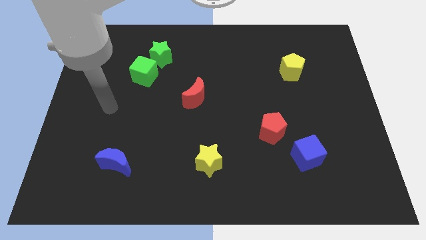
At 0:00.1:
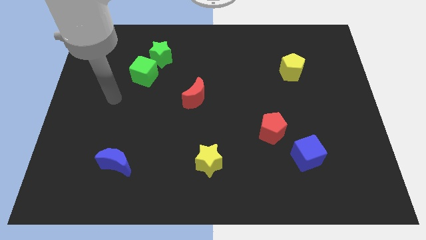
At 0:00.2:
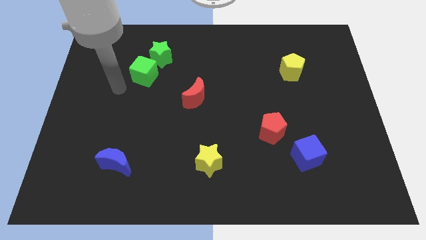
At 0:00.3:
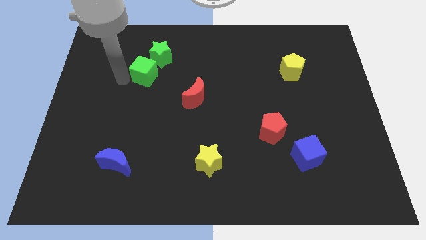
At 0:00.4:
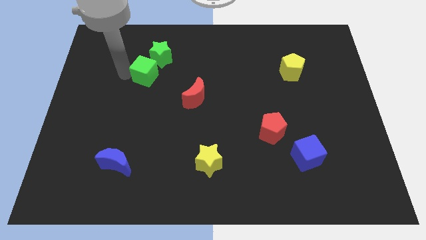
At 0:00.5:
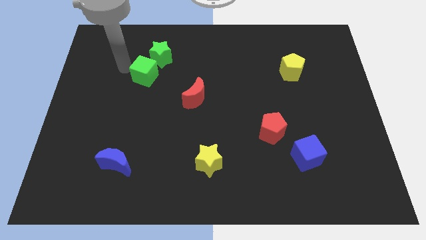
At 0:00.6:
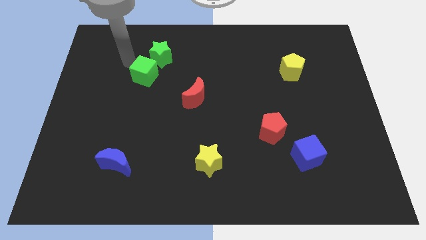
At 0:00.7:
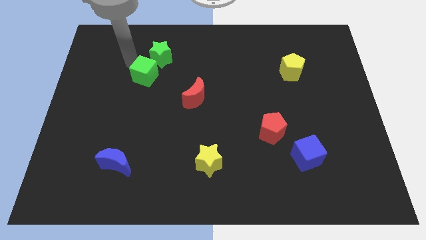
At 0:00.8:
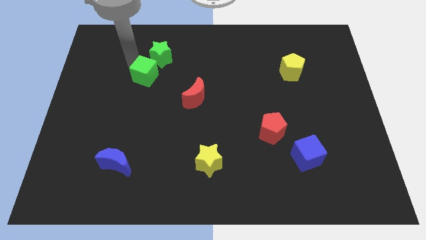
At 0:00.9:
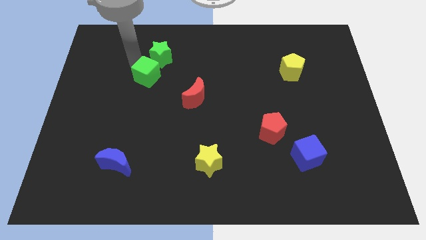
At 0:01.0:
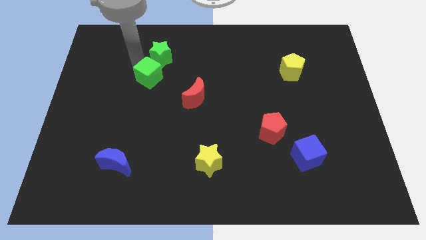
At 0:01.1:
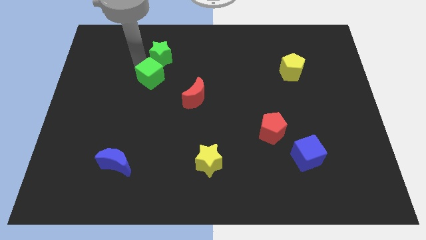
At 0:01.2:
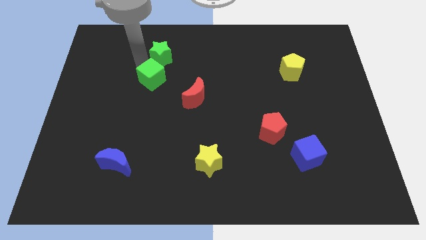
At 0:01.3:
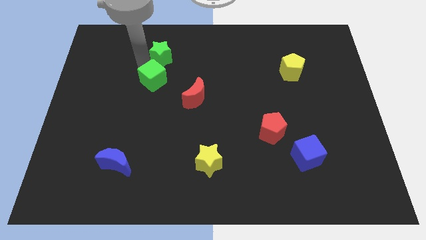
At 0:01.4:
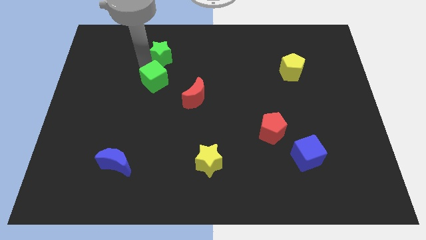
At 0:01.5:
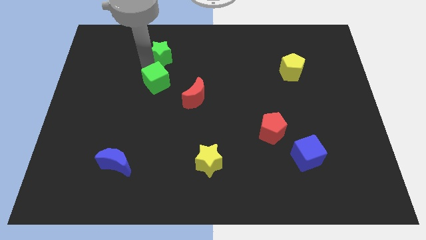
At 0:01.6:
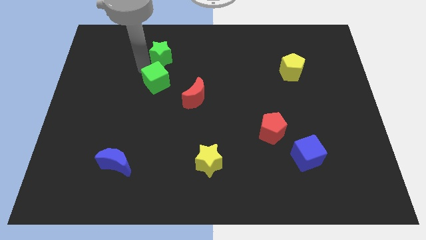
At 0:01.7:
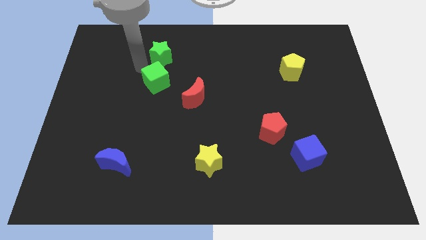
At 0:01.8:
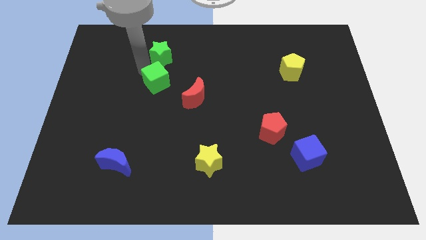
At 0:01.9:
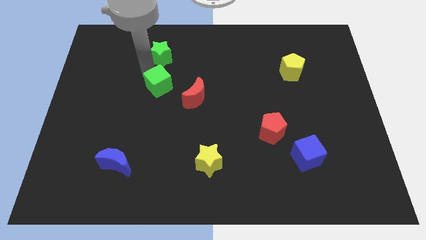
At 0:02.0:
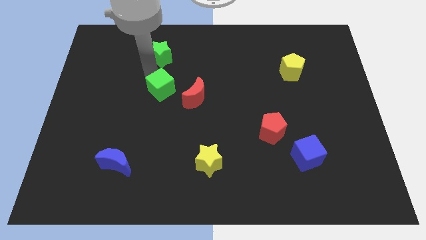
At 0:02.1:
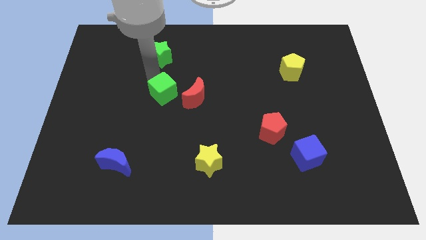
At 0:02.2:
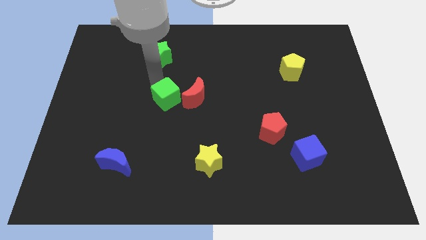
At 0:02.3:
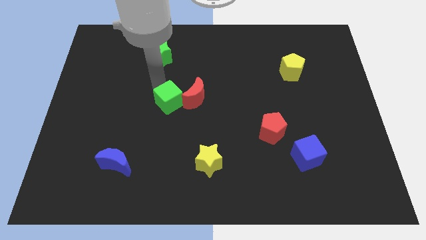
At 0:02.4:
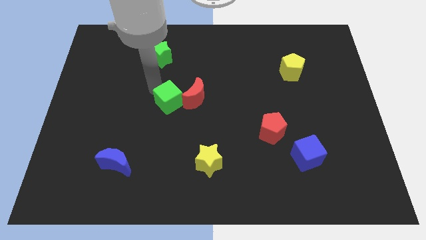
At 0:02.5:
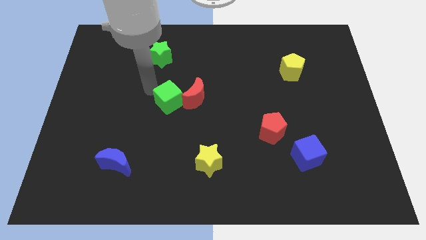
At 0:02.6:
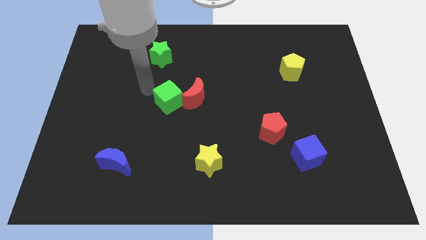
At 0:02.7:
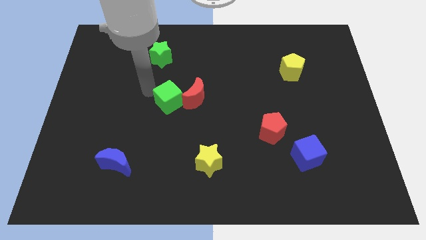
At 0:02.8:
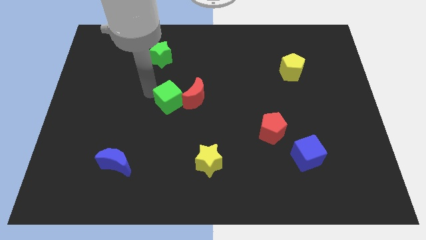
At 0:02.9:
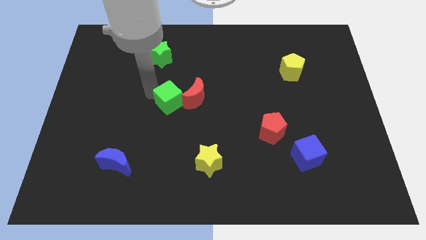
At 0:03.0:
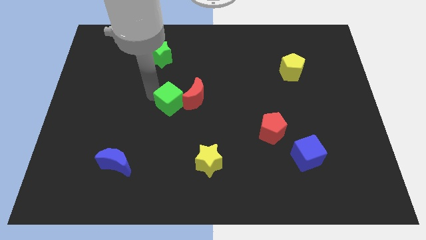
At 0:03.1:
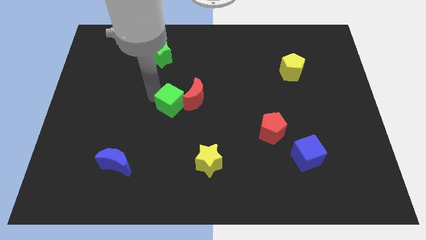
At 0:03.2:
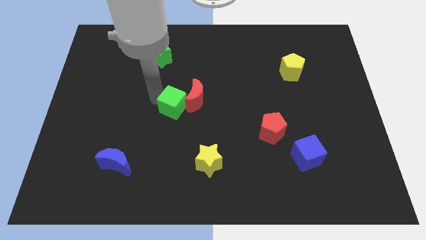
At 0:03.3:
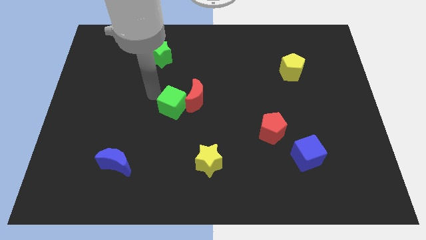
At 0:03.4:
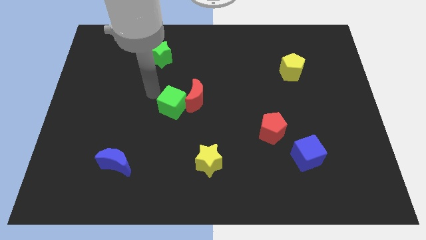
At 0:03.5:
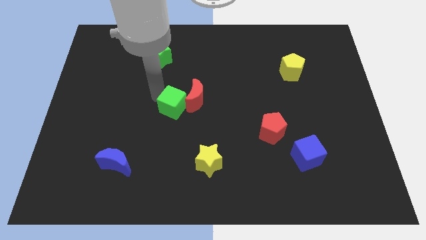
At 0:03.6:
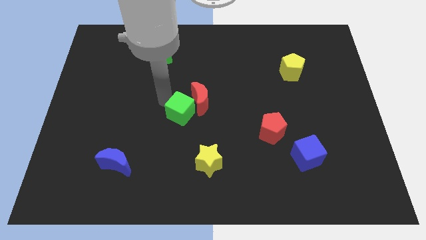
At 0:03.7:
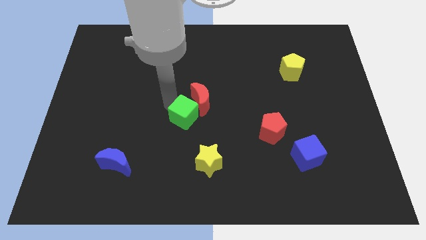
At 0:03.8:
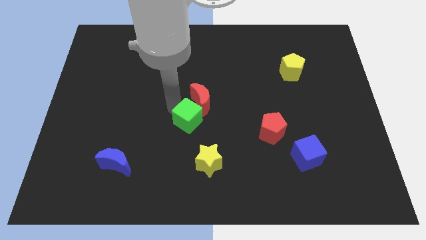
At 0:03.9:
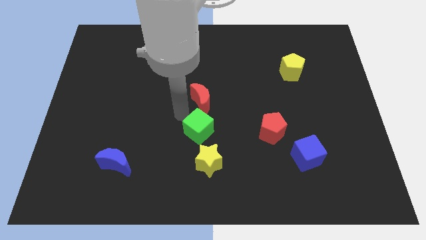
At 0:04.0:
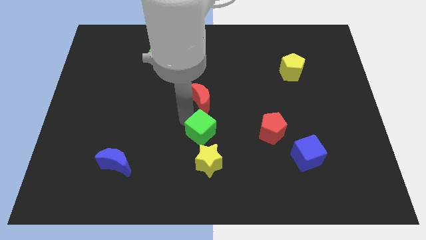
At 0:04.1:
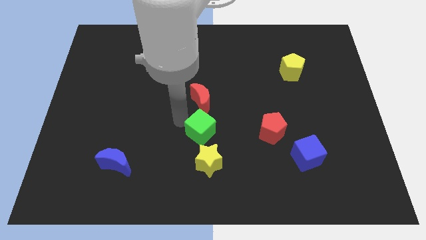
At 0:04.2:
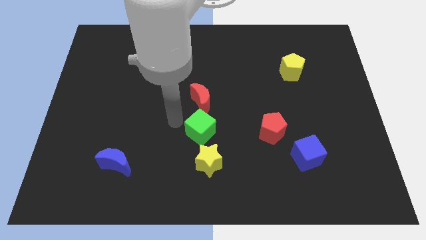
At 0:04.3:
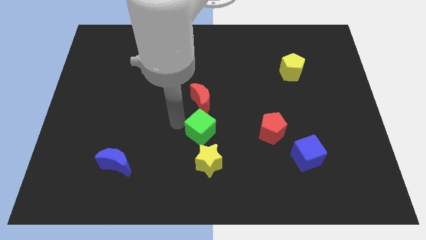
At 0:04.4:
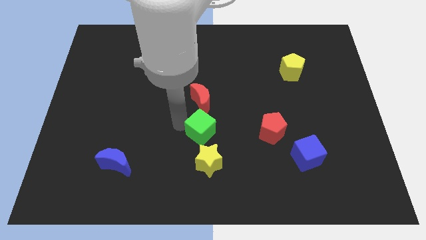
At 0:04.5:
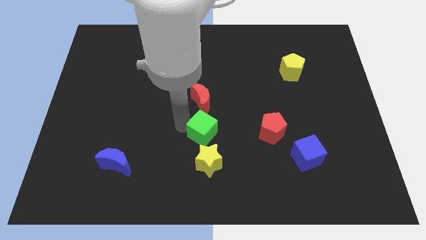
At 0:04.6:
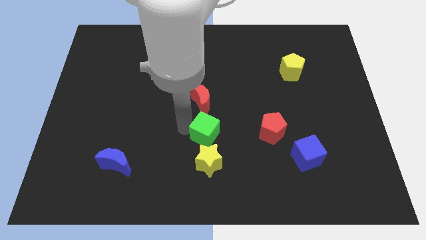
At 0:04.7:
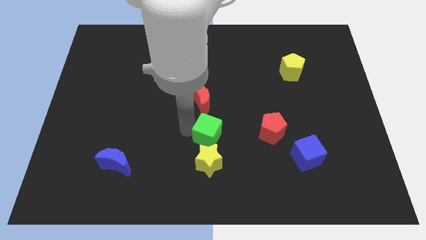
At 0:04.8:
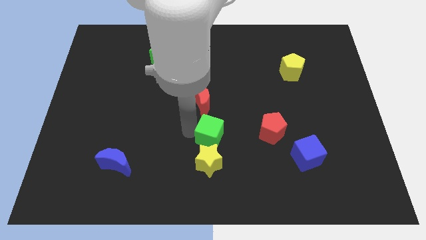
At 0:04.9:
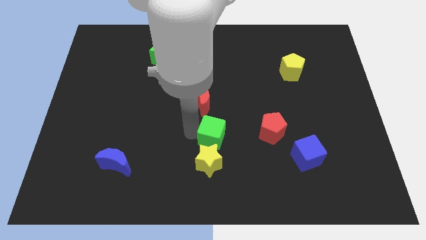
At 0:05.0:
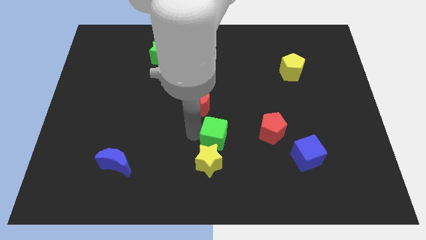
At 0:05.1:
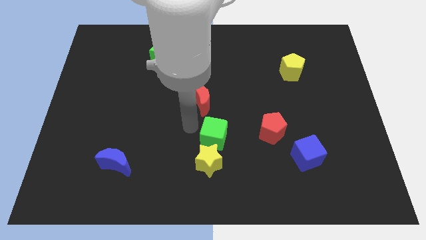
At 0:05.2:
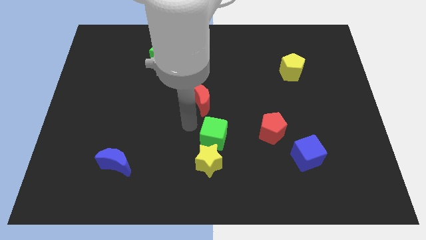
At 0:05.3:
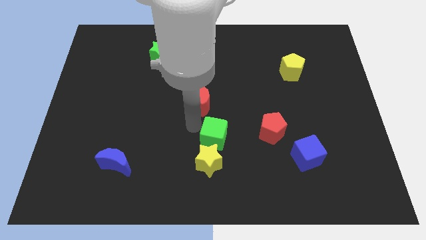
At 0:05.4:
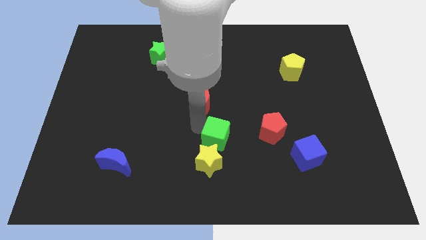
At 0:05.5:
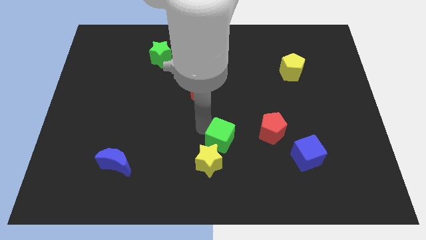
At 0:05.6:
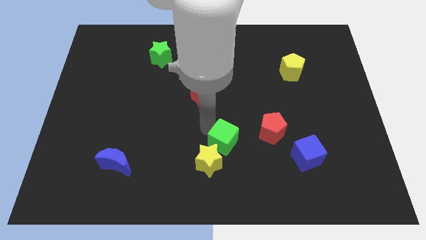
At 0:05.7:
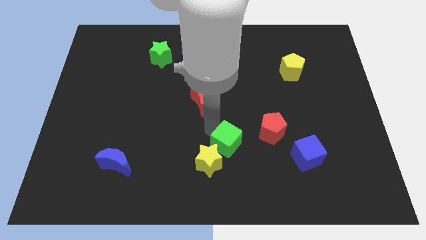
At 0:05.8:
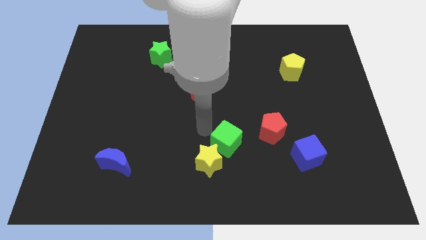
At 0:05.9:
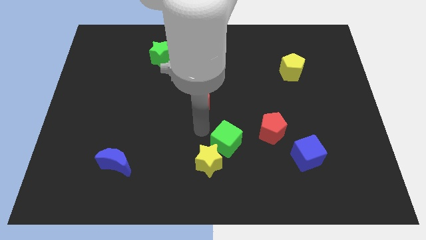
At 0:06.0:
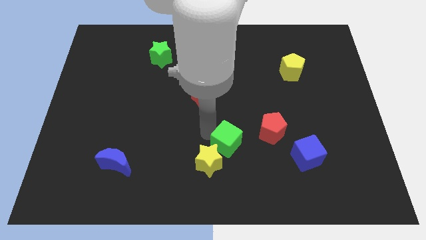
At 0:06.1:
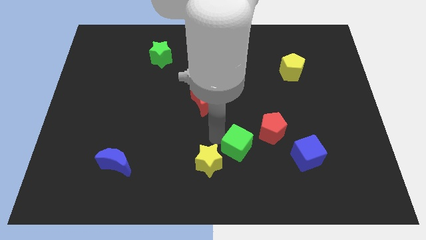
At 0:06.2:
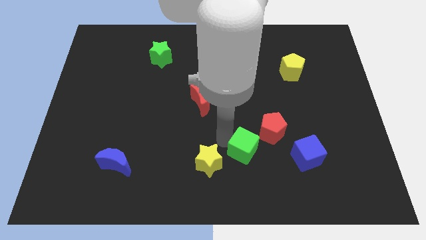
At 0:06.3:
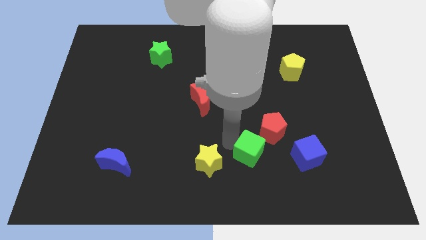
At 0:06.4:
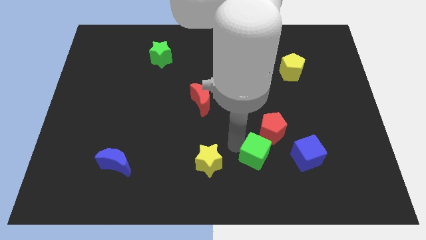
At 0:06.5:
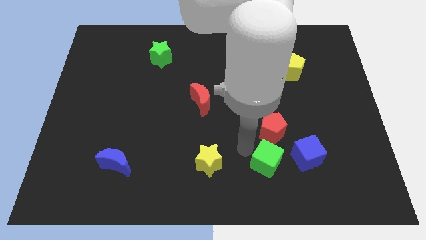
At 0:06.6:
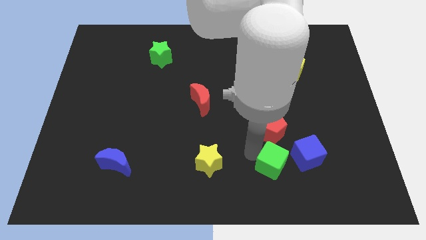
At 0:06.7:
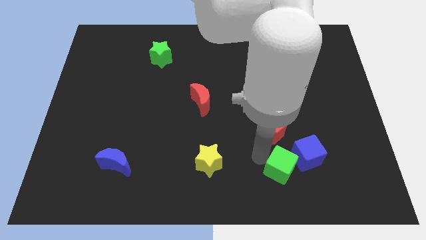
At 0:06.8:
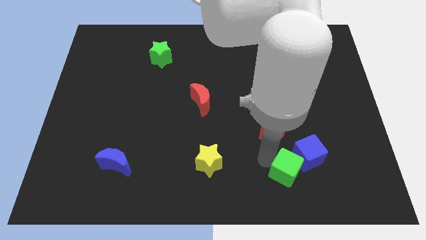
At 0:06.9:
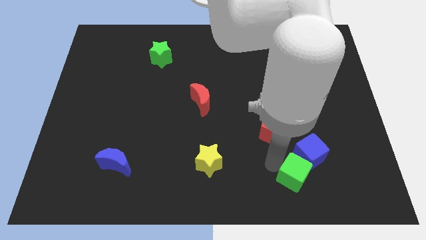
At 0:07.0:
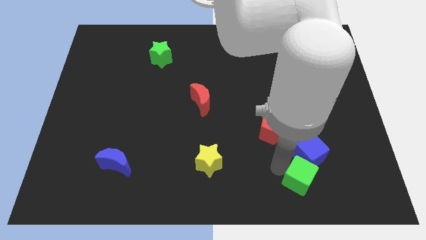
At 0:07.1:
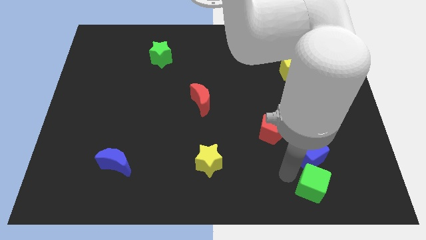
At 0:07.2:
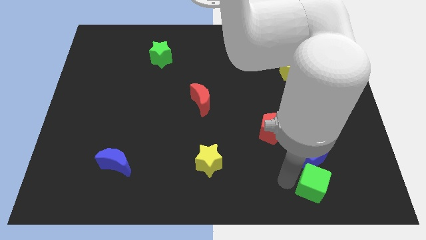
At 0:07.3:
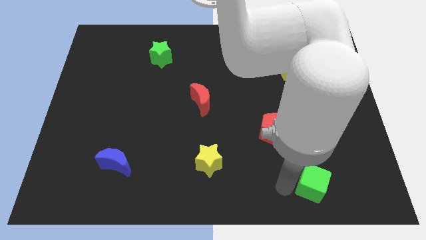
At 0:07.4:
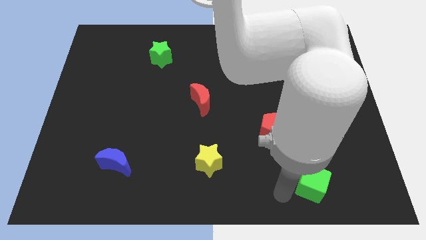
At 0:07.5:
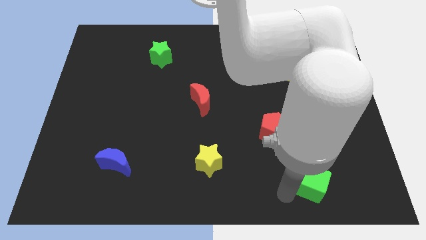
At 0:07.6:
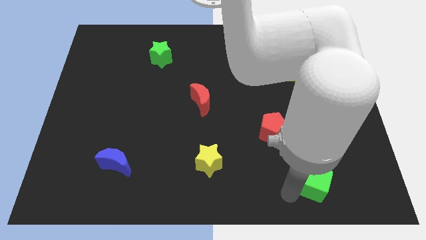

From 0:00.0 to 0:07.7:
put the green cube to the bottom right of the blue cube
